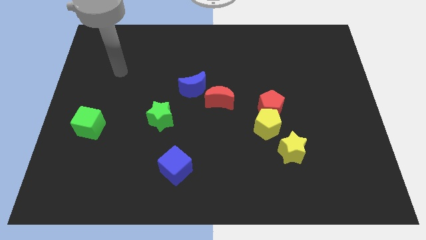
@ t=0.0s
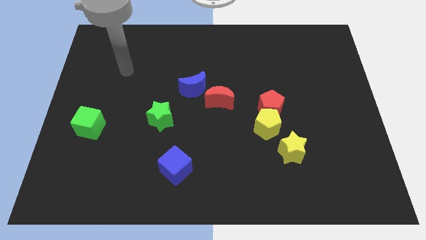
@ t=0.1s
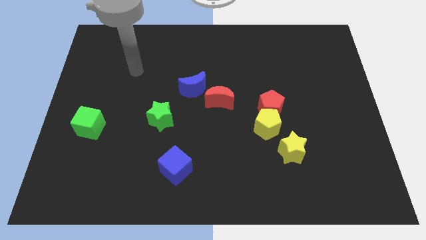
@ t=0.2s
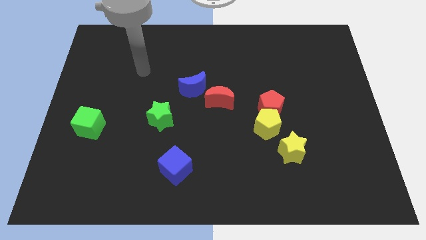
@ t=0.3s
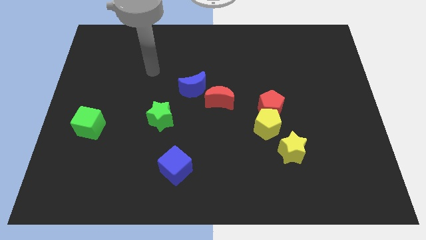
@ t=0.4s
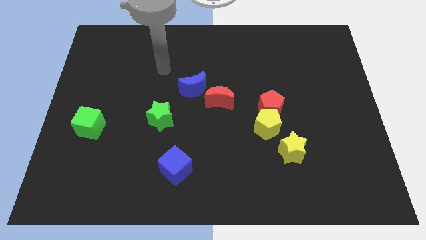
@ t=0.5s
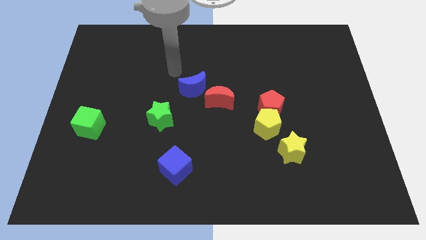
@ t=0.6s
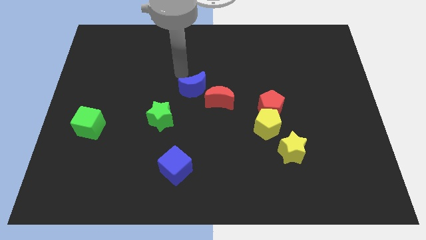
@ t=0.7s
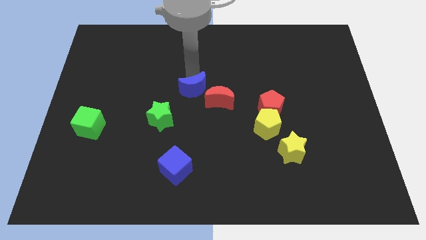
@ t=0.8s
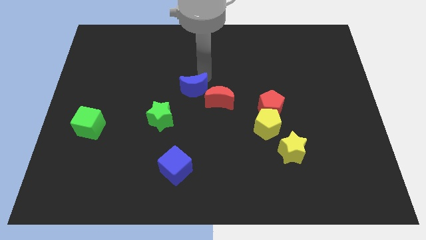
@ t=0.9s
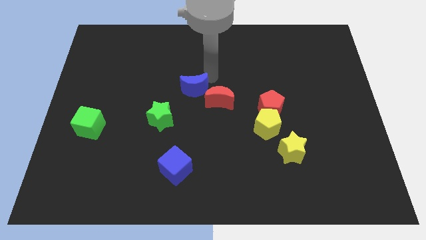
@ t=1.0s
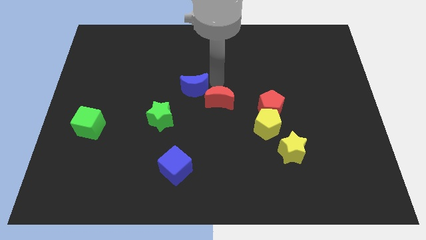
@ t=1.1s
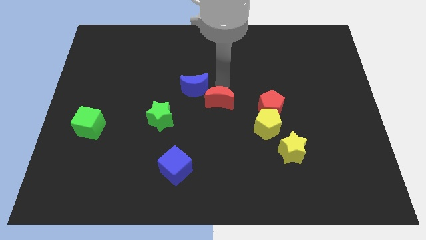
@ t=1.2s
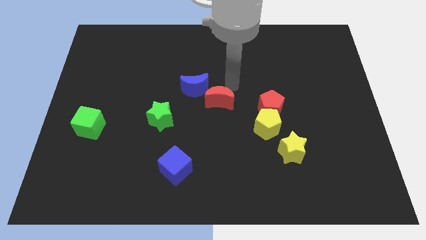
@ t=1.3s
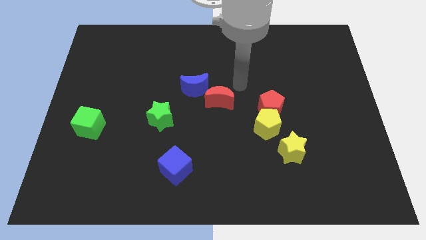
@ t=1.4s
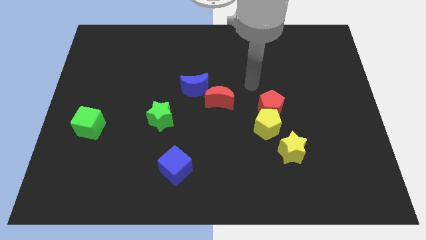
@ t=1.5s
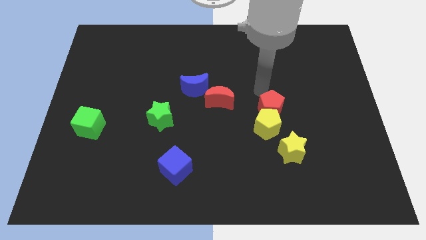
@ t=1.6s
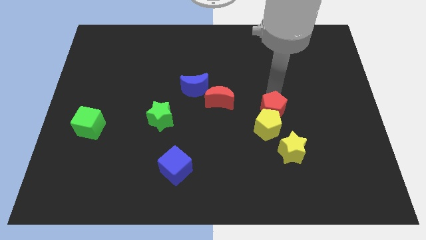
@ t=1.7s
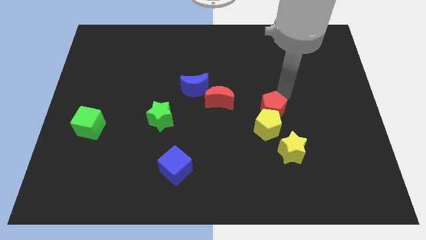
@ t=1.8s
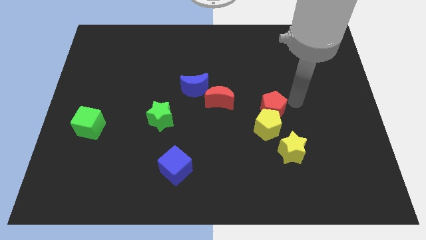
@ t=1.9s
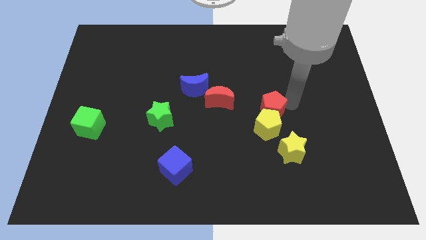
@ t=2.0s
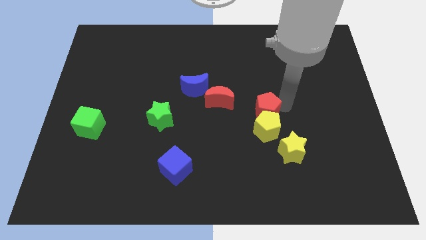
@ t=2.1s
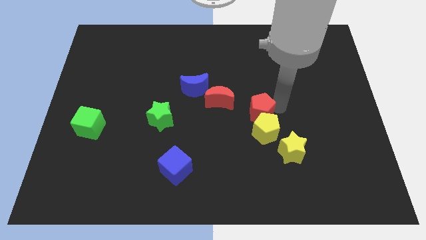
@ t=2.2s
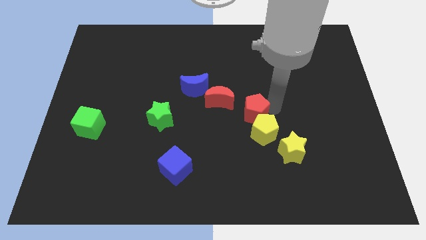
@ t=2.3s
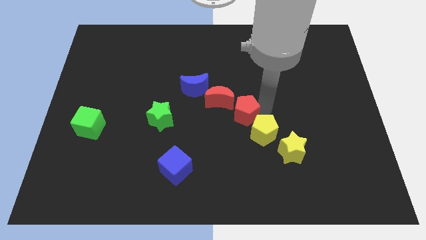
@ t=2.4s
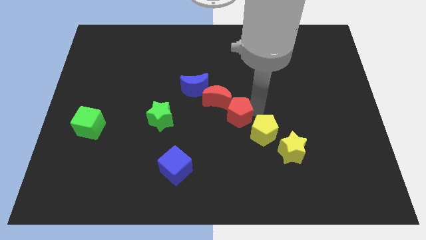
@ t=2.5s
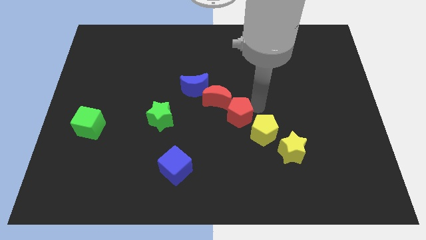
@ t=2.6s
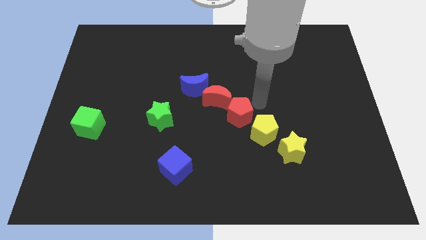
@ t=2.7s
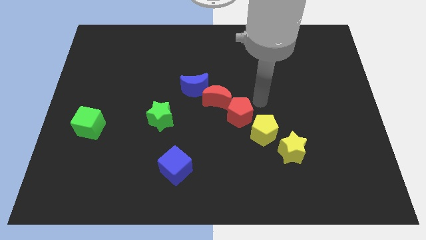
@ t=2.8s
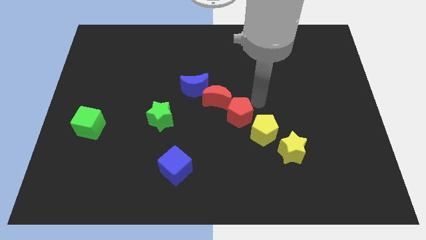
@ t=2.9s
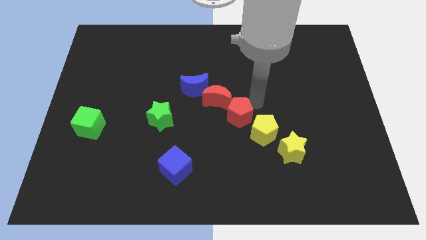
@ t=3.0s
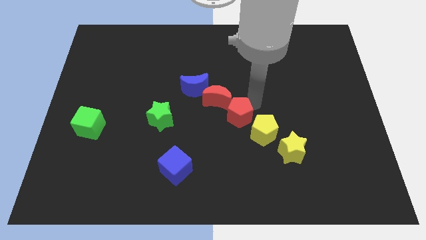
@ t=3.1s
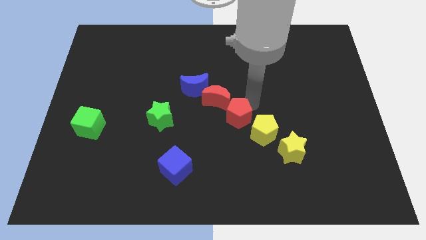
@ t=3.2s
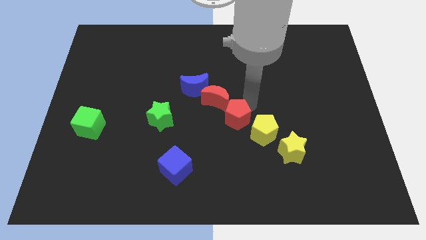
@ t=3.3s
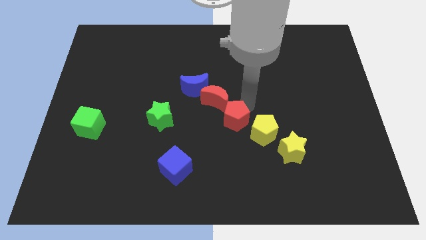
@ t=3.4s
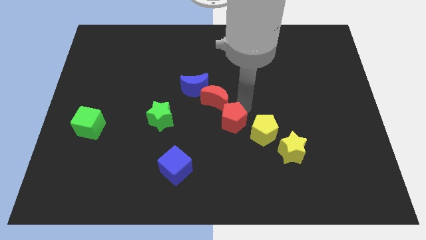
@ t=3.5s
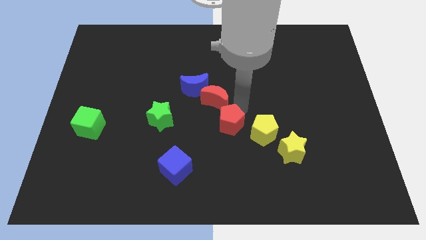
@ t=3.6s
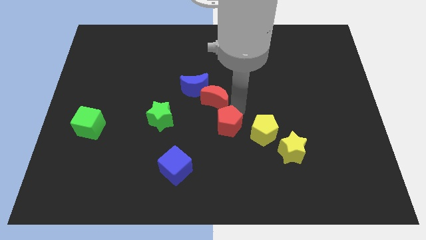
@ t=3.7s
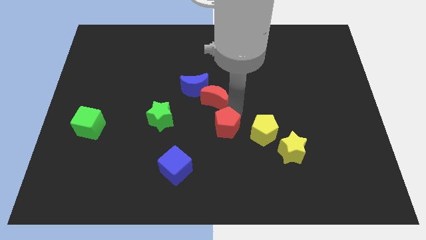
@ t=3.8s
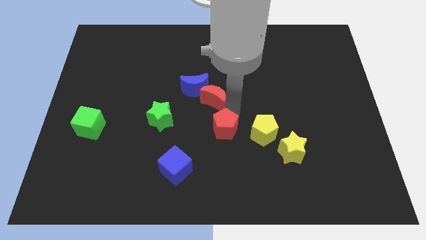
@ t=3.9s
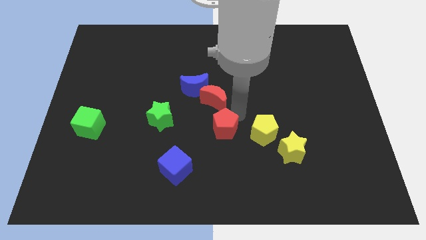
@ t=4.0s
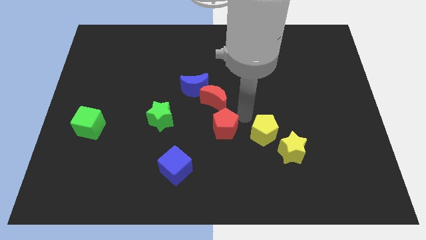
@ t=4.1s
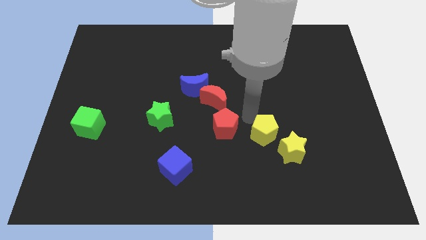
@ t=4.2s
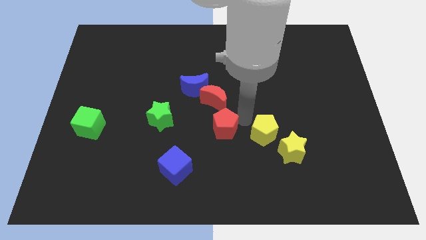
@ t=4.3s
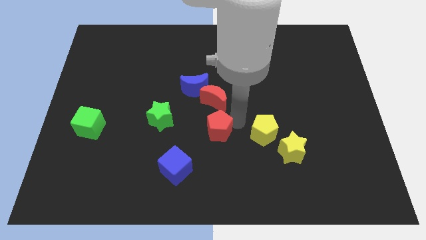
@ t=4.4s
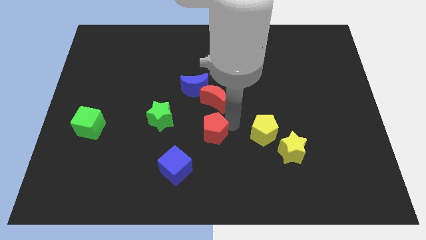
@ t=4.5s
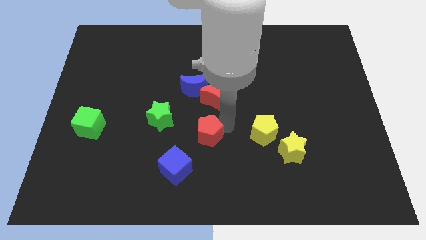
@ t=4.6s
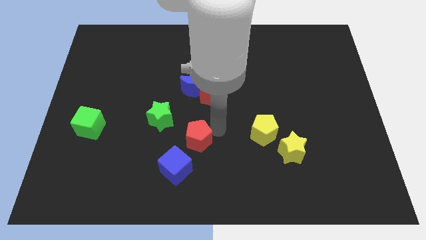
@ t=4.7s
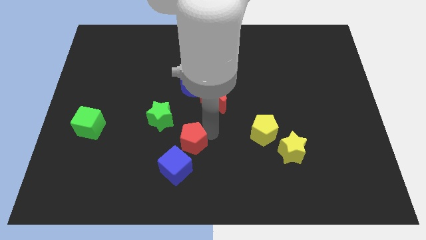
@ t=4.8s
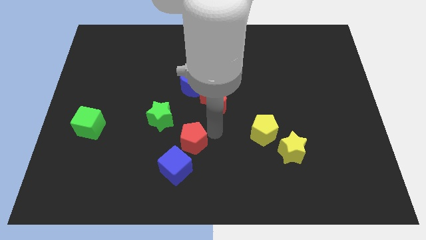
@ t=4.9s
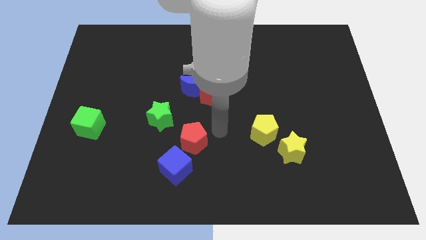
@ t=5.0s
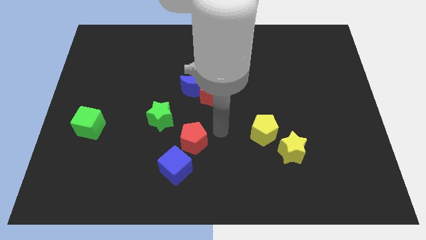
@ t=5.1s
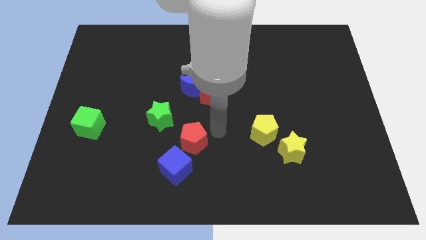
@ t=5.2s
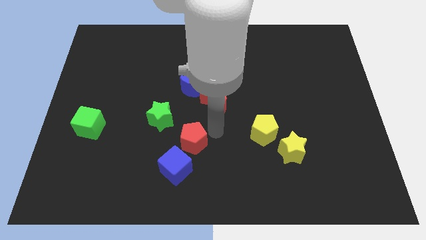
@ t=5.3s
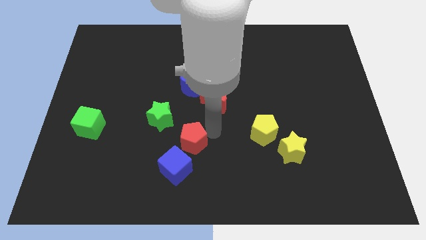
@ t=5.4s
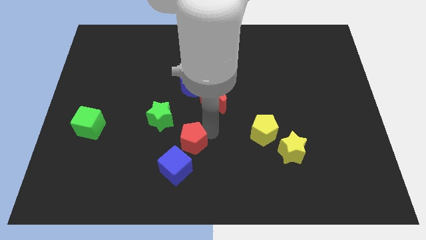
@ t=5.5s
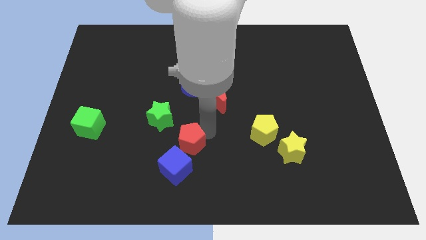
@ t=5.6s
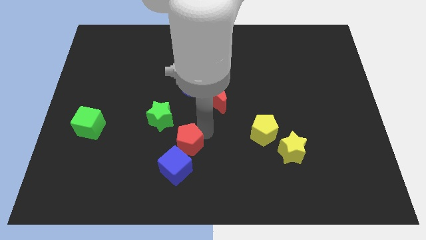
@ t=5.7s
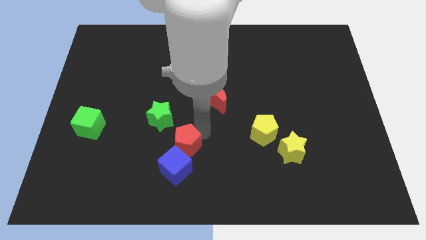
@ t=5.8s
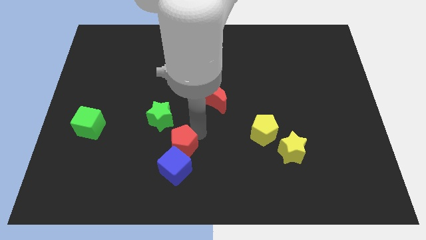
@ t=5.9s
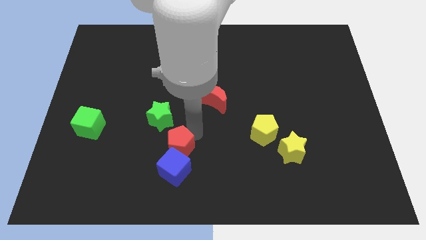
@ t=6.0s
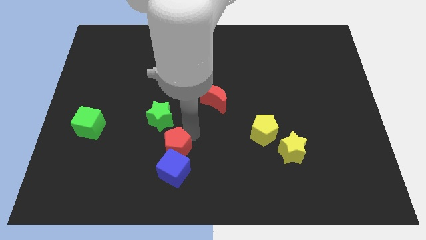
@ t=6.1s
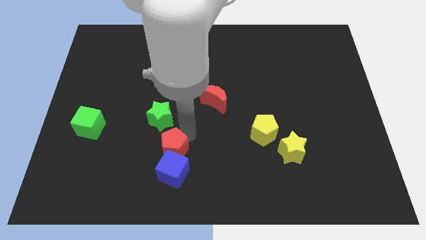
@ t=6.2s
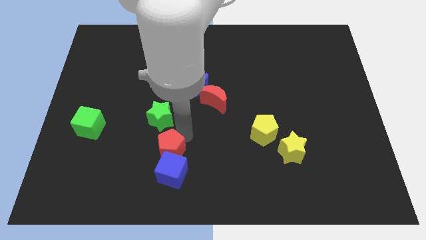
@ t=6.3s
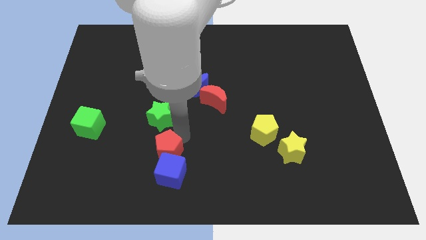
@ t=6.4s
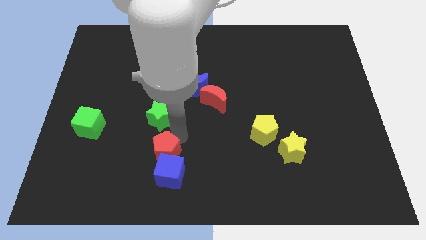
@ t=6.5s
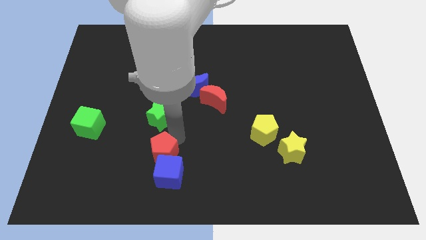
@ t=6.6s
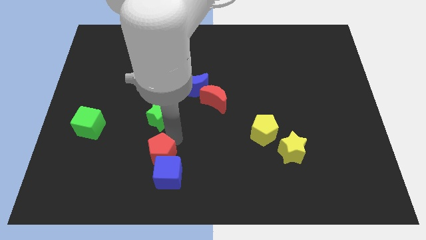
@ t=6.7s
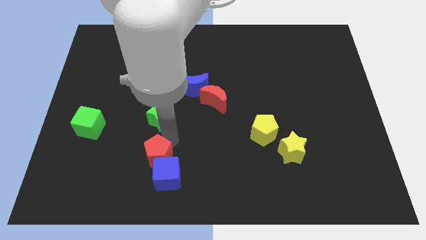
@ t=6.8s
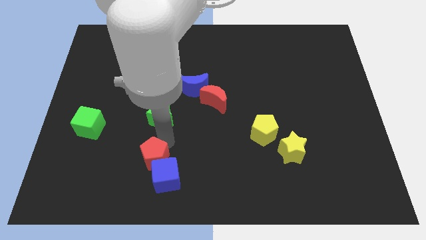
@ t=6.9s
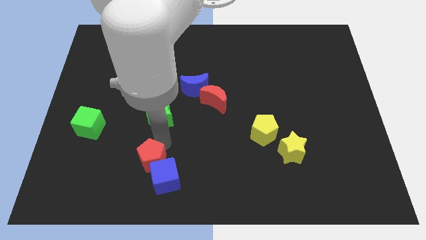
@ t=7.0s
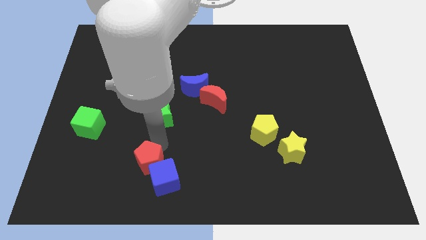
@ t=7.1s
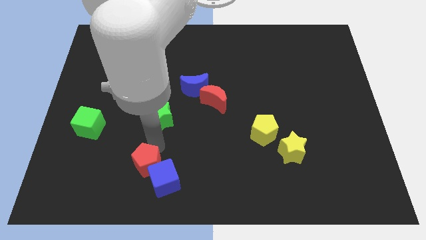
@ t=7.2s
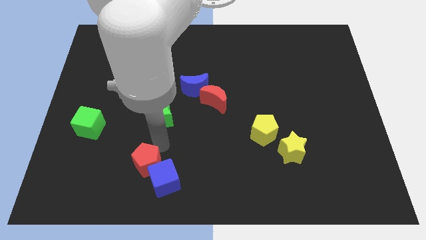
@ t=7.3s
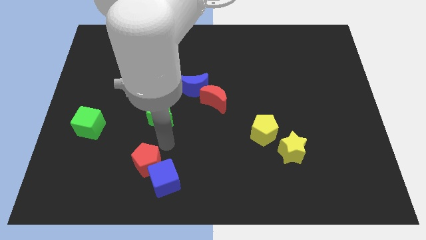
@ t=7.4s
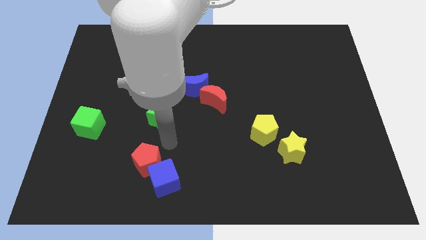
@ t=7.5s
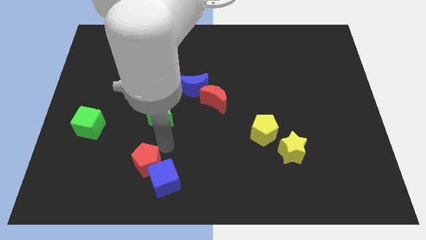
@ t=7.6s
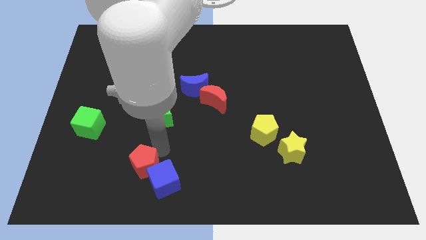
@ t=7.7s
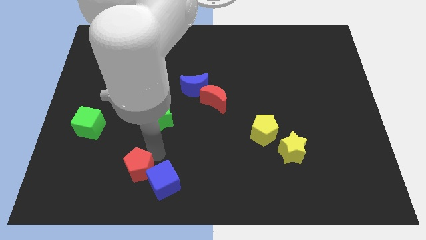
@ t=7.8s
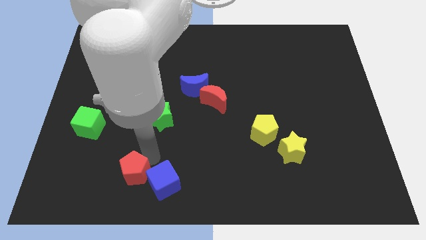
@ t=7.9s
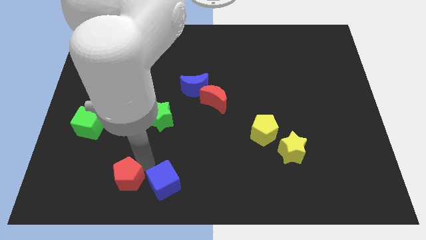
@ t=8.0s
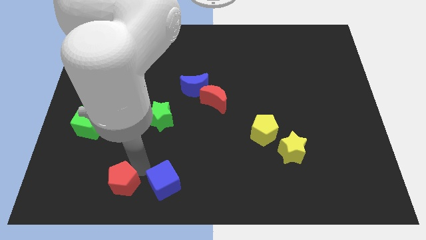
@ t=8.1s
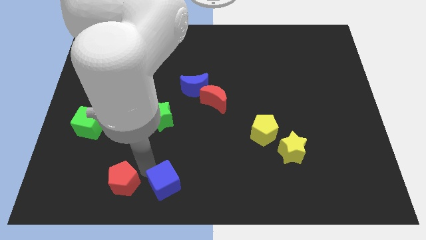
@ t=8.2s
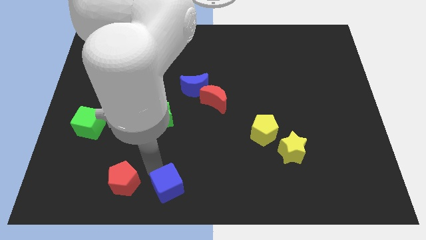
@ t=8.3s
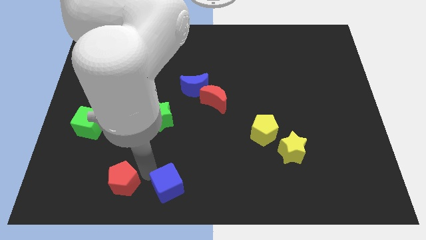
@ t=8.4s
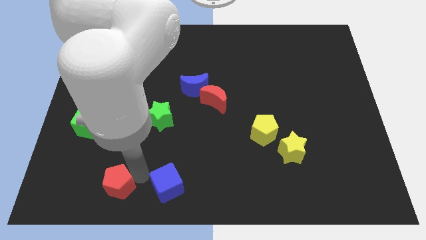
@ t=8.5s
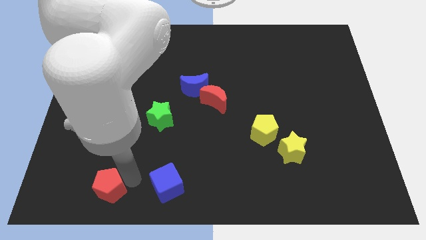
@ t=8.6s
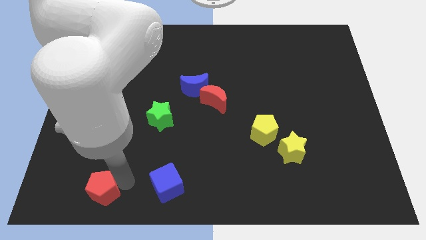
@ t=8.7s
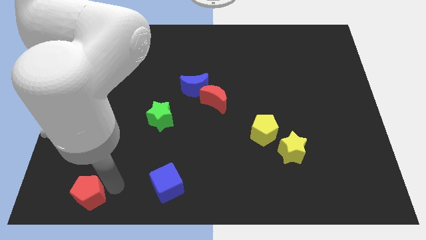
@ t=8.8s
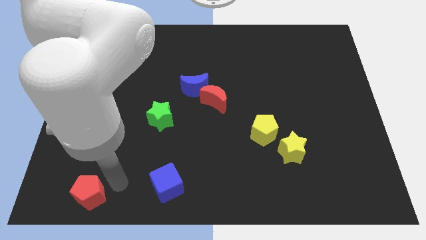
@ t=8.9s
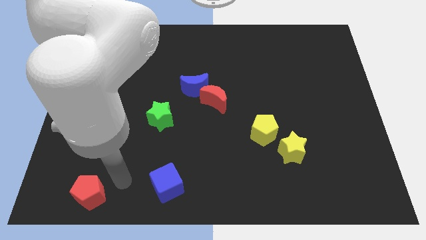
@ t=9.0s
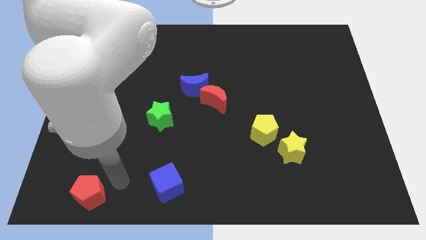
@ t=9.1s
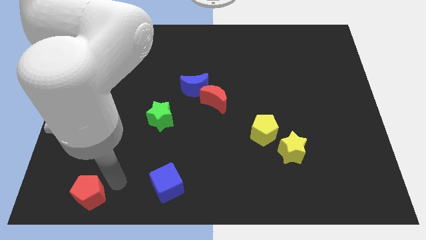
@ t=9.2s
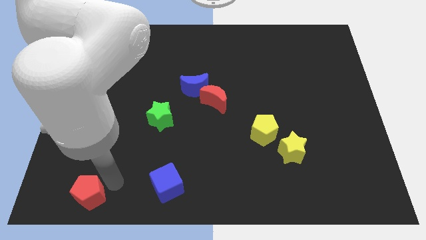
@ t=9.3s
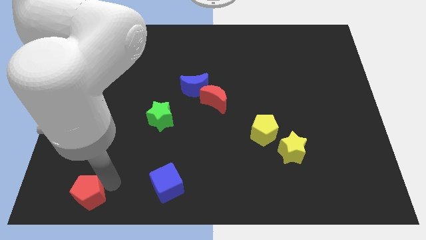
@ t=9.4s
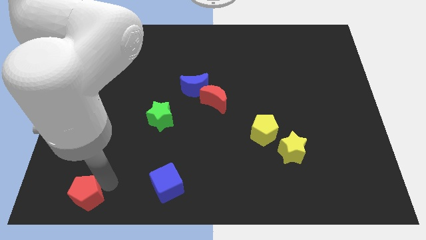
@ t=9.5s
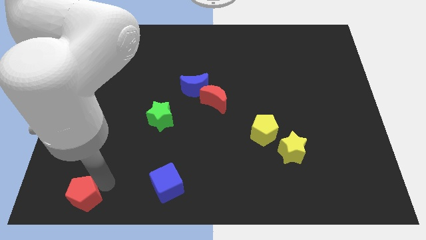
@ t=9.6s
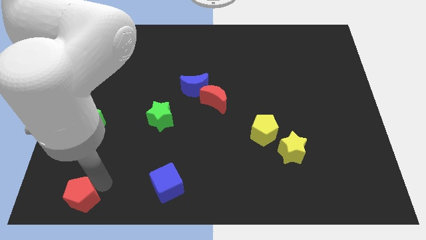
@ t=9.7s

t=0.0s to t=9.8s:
move the red pentagon to the bottom left of the board
